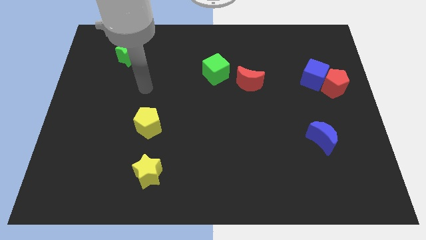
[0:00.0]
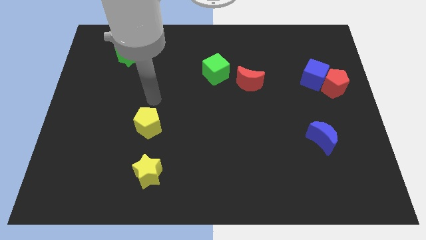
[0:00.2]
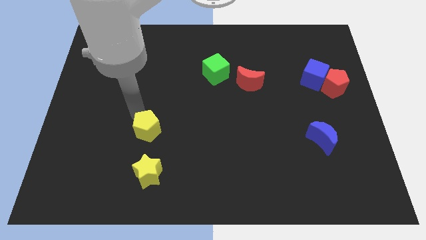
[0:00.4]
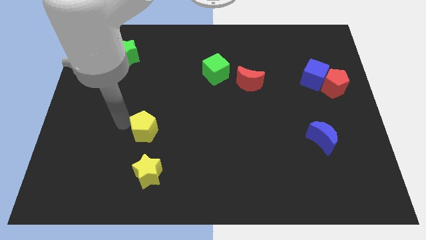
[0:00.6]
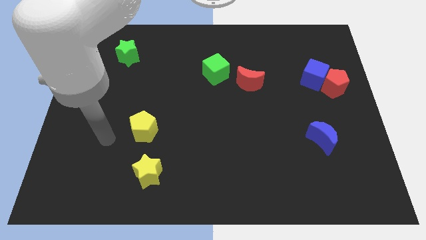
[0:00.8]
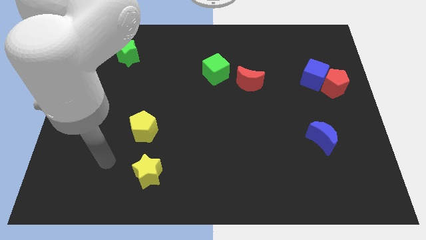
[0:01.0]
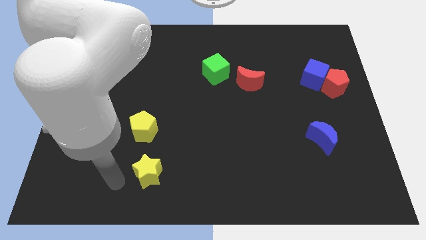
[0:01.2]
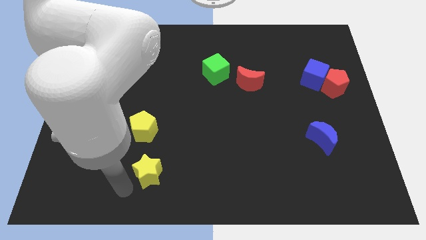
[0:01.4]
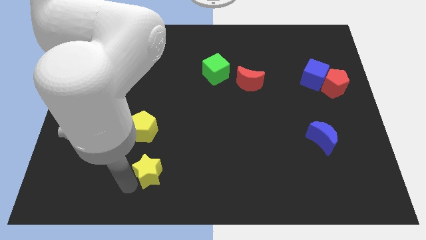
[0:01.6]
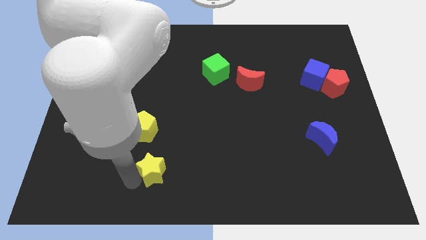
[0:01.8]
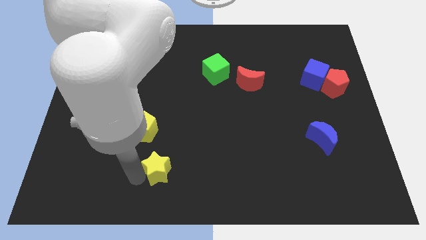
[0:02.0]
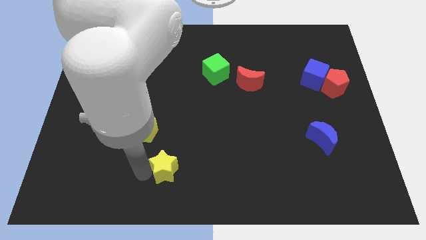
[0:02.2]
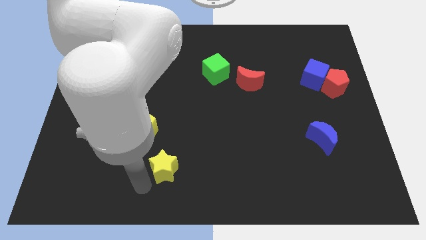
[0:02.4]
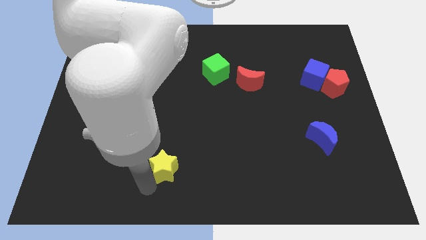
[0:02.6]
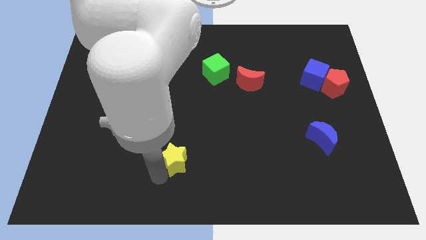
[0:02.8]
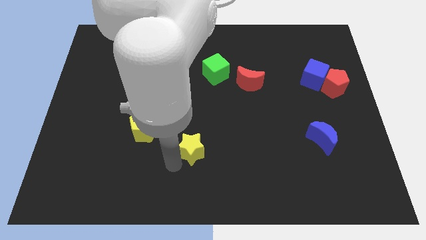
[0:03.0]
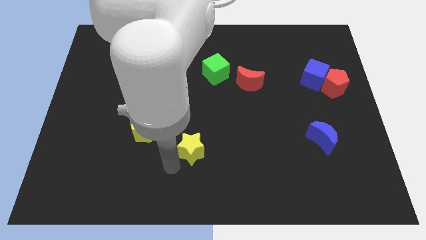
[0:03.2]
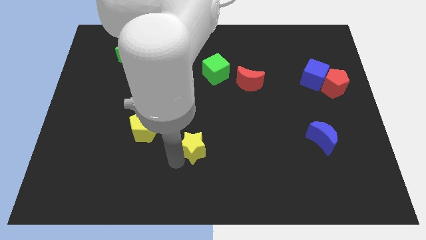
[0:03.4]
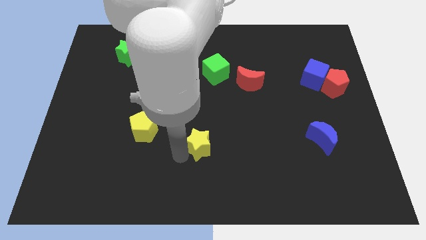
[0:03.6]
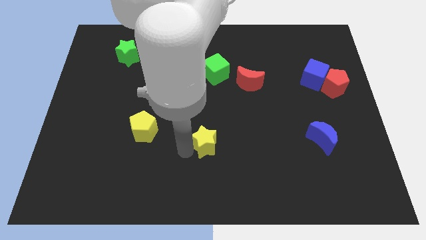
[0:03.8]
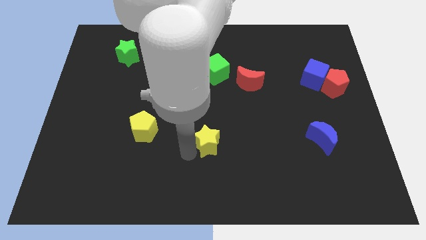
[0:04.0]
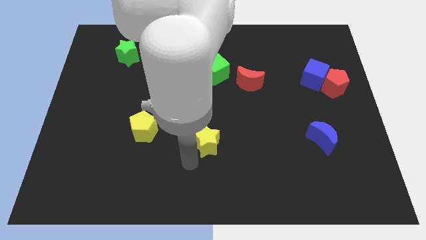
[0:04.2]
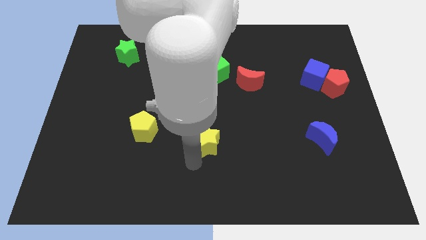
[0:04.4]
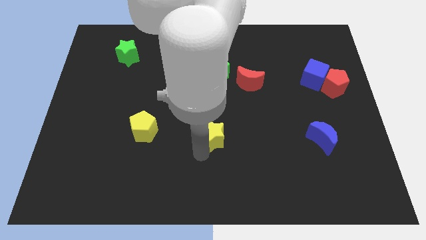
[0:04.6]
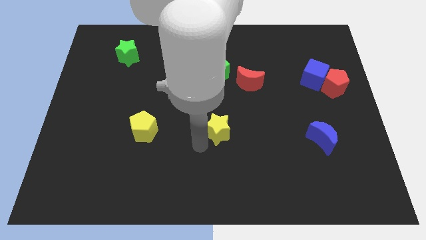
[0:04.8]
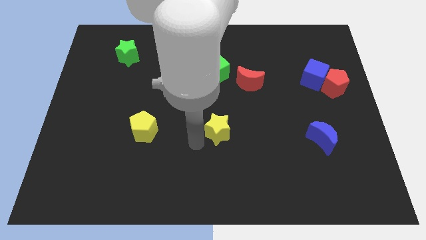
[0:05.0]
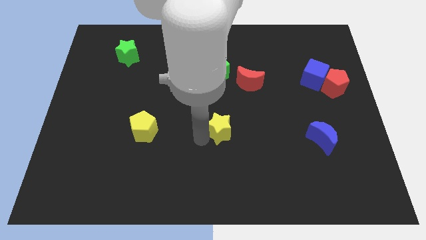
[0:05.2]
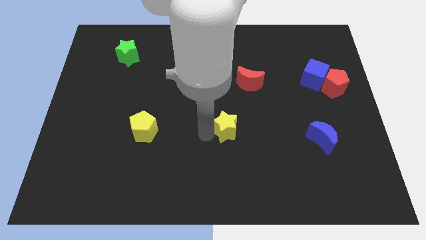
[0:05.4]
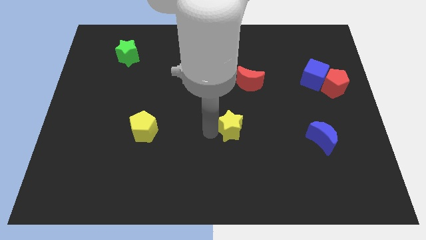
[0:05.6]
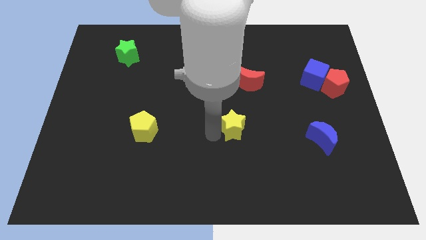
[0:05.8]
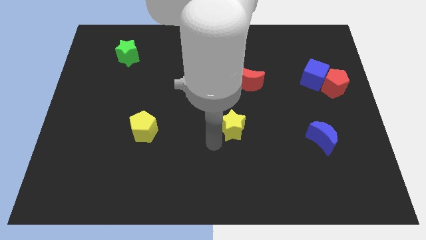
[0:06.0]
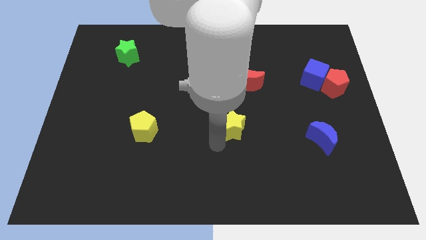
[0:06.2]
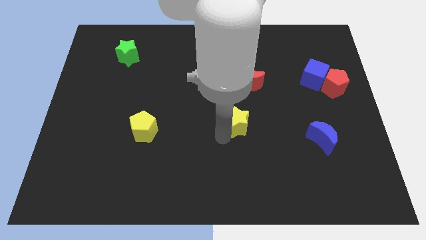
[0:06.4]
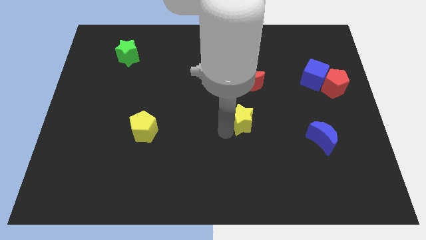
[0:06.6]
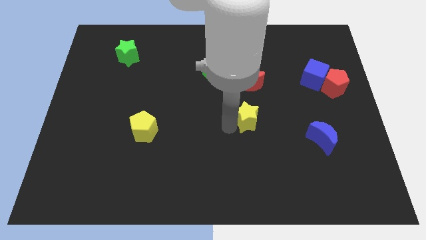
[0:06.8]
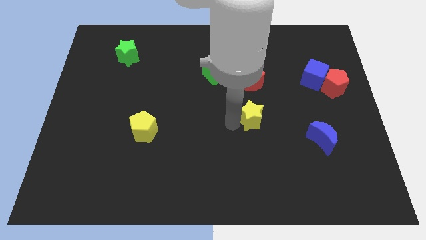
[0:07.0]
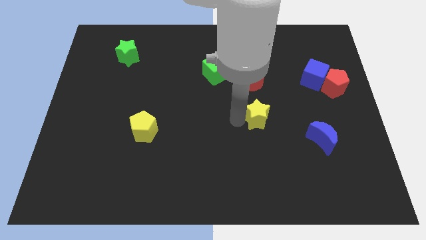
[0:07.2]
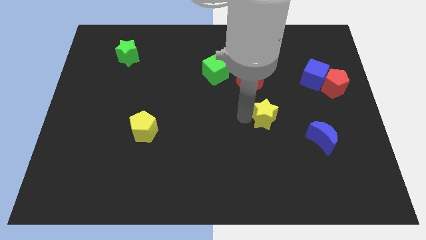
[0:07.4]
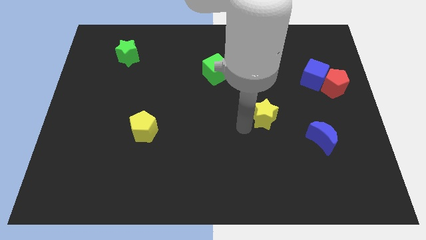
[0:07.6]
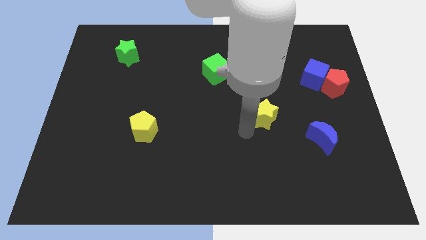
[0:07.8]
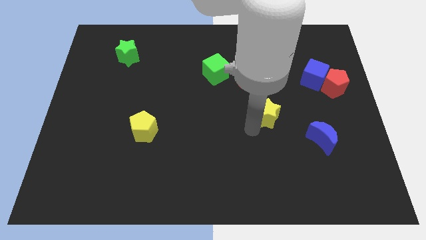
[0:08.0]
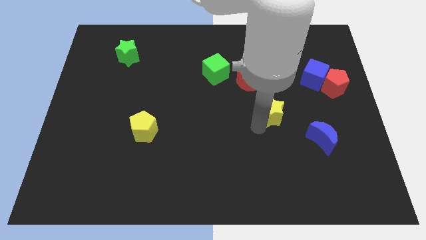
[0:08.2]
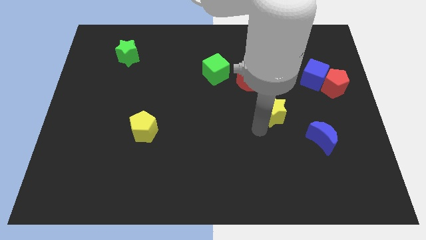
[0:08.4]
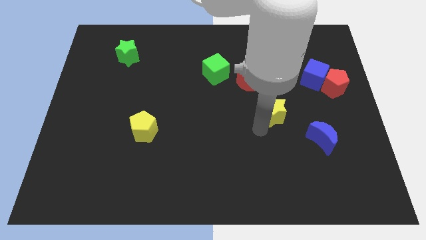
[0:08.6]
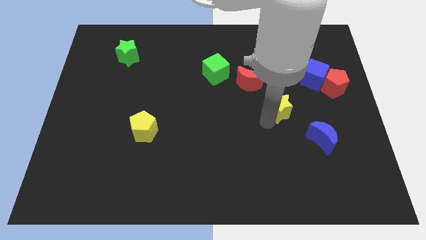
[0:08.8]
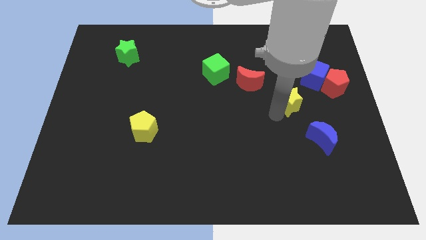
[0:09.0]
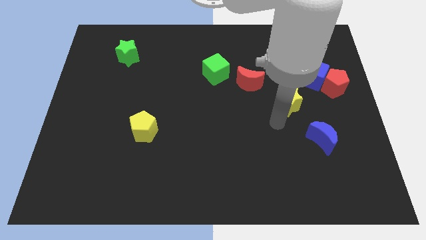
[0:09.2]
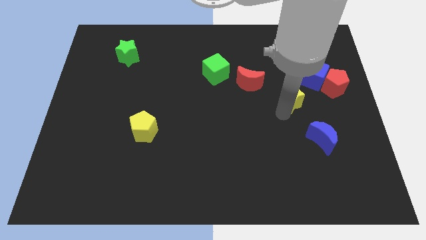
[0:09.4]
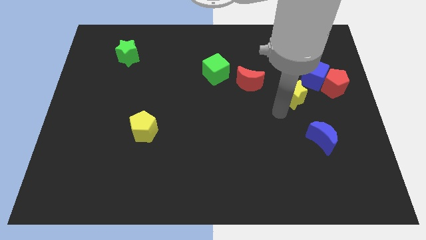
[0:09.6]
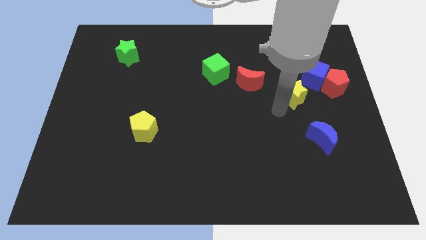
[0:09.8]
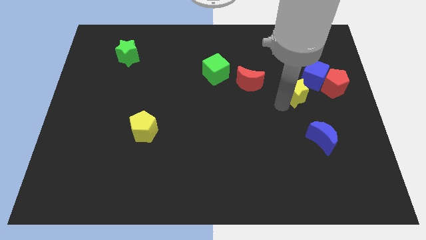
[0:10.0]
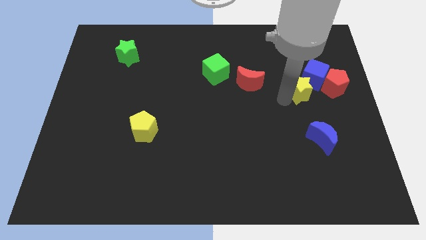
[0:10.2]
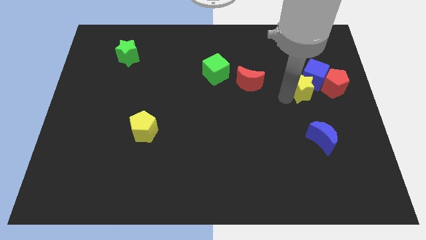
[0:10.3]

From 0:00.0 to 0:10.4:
put the yellow star close to the blue cube

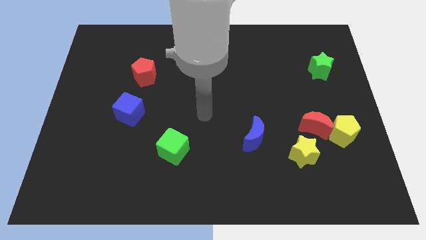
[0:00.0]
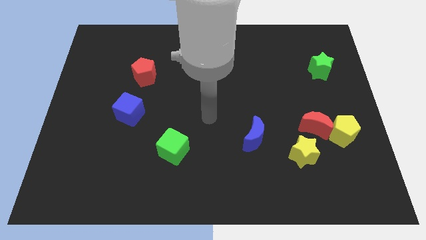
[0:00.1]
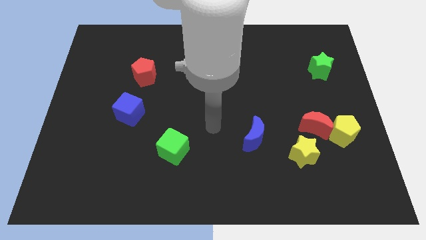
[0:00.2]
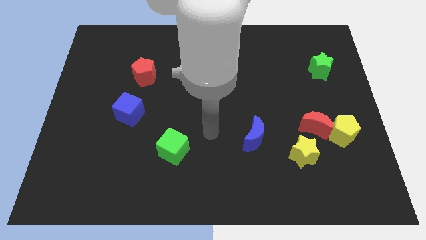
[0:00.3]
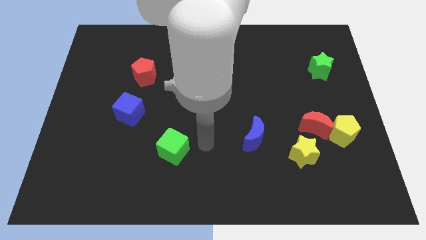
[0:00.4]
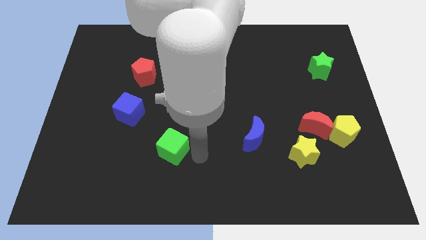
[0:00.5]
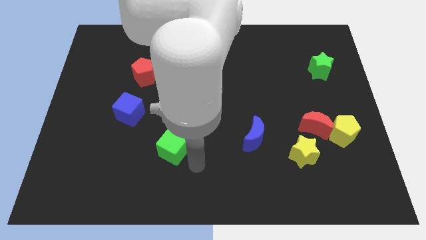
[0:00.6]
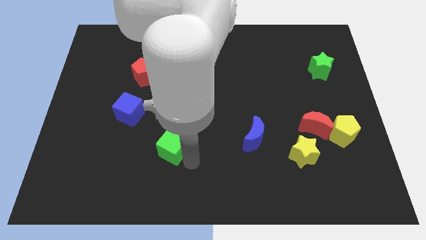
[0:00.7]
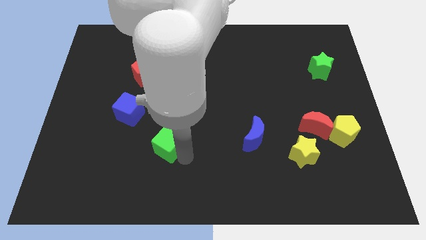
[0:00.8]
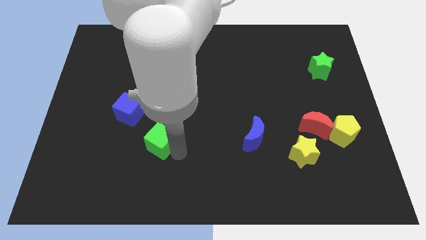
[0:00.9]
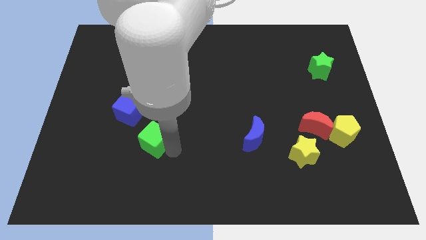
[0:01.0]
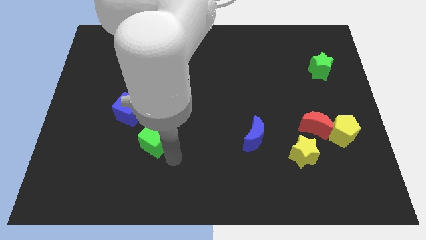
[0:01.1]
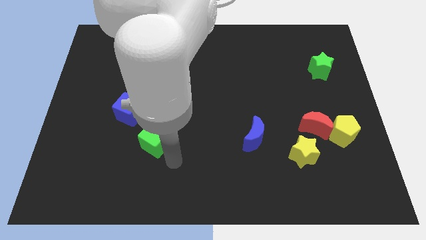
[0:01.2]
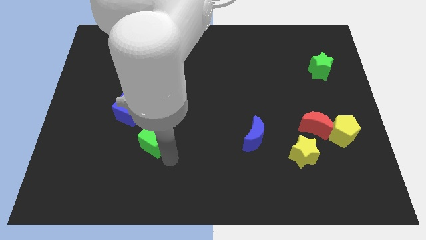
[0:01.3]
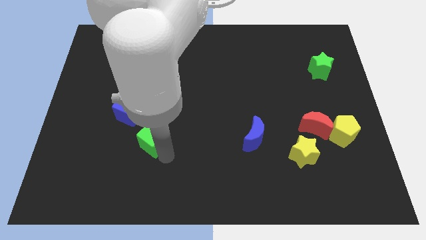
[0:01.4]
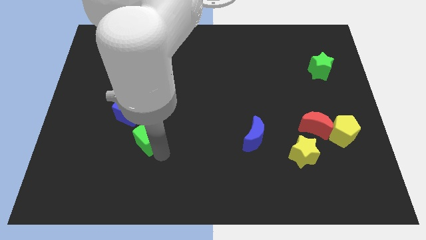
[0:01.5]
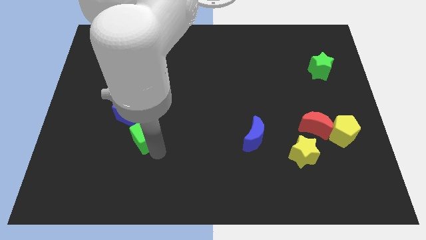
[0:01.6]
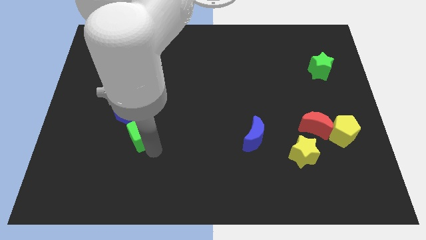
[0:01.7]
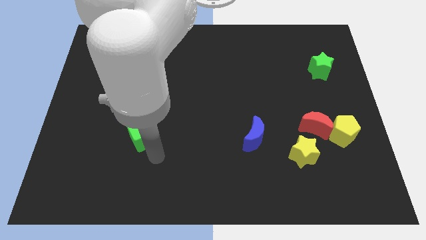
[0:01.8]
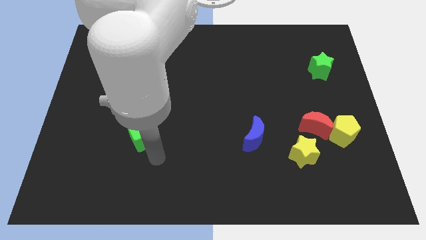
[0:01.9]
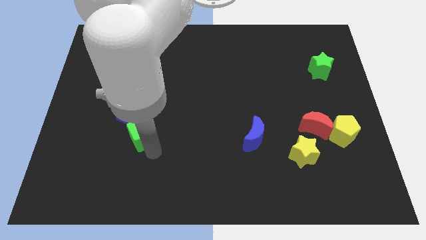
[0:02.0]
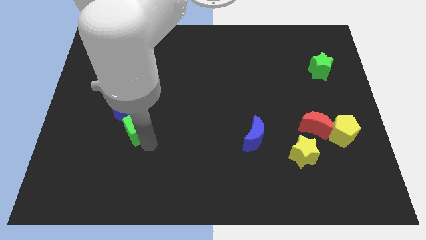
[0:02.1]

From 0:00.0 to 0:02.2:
put the green cube close to the blue cube
